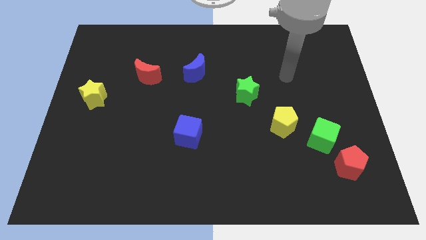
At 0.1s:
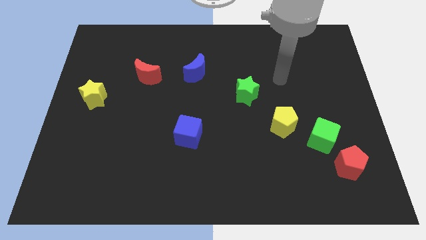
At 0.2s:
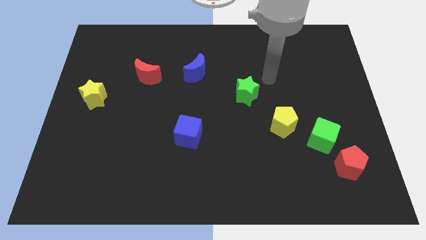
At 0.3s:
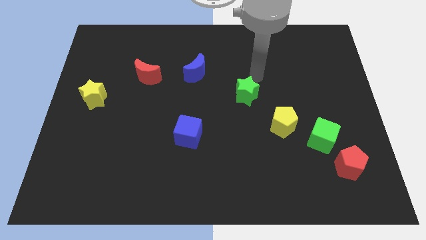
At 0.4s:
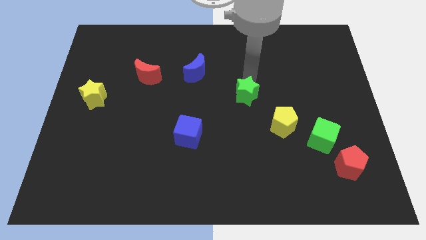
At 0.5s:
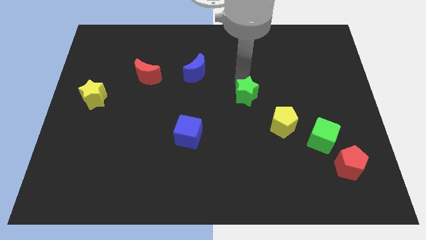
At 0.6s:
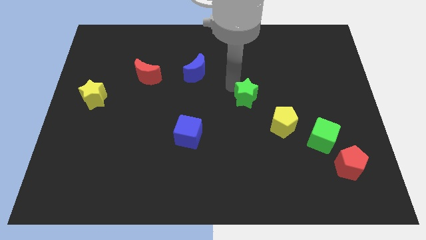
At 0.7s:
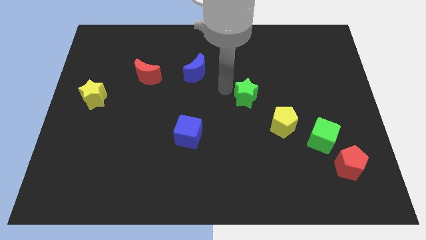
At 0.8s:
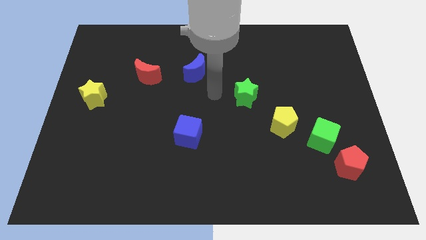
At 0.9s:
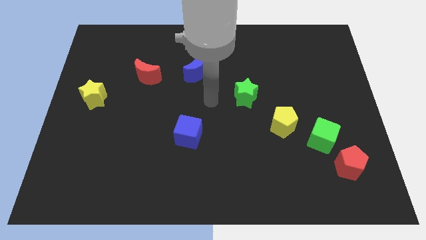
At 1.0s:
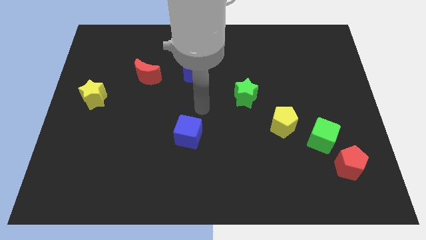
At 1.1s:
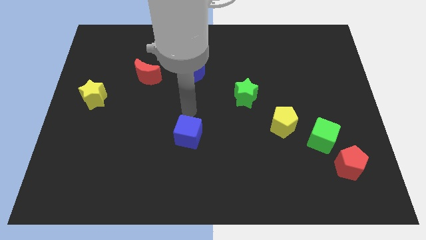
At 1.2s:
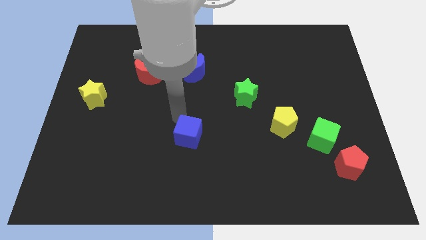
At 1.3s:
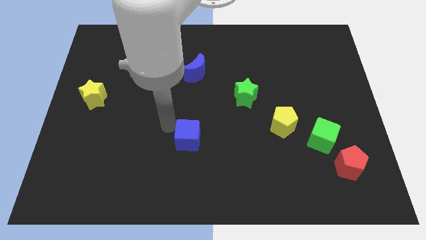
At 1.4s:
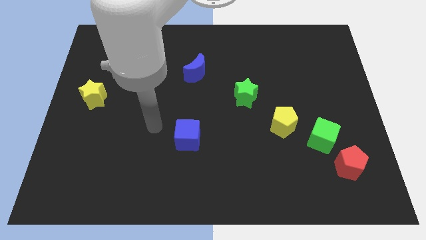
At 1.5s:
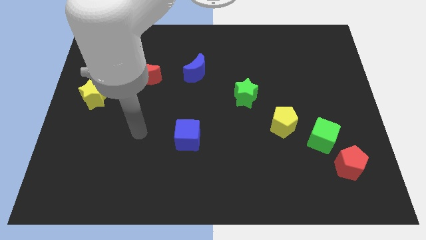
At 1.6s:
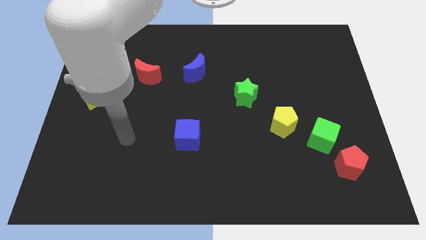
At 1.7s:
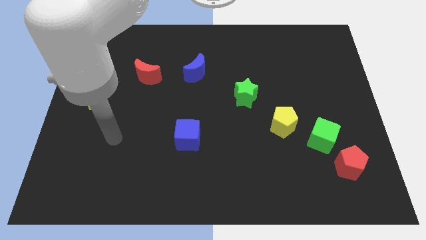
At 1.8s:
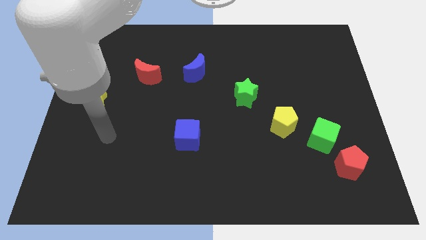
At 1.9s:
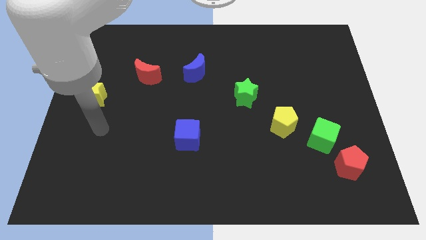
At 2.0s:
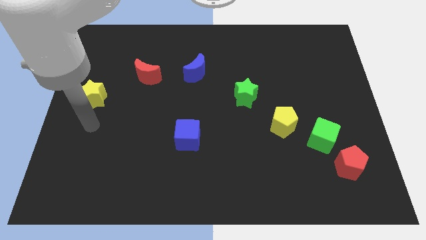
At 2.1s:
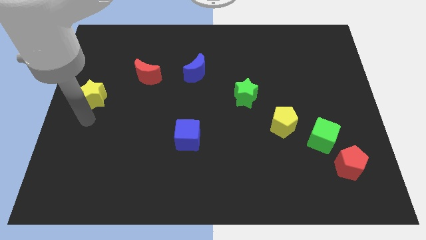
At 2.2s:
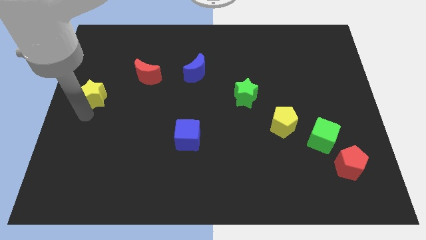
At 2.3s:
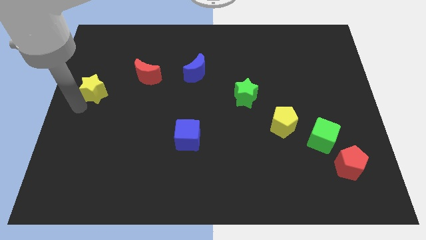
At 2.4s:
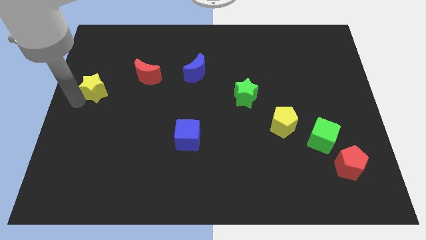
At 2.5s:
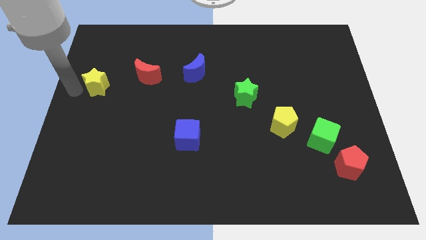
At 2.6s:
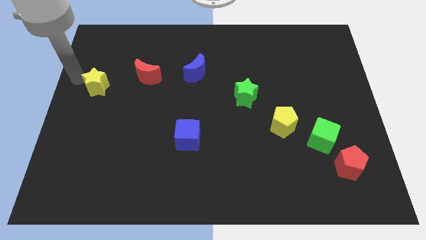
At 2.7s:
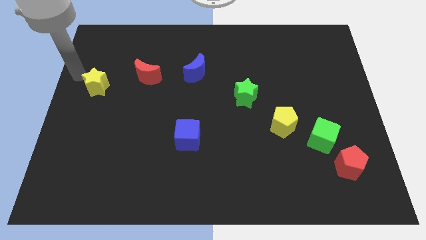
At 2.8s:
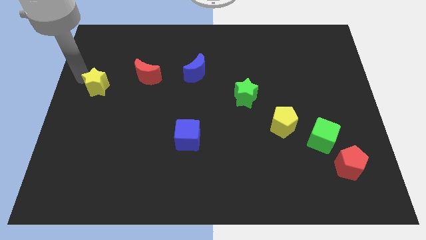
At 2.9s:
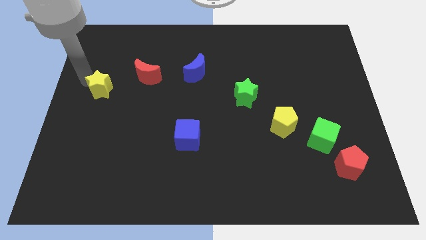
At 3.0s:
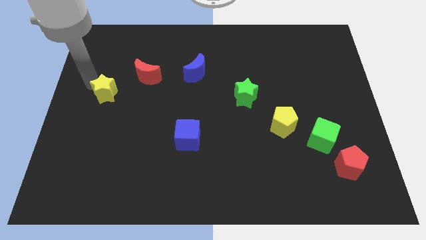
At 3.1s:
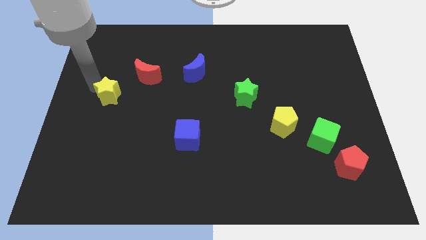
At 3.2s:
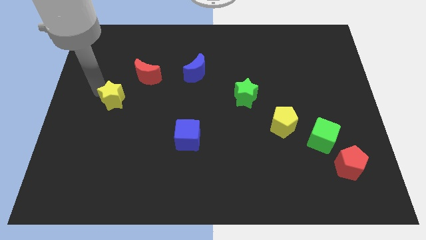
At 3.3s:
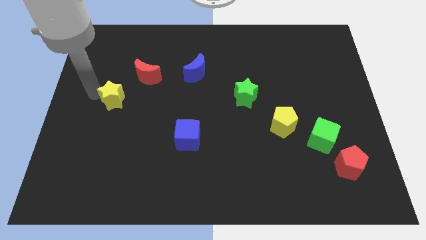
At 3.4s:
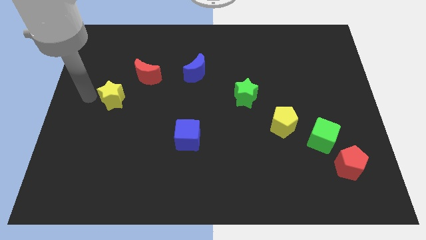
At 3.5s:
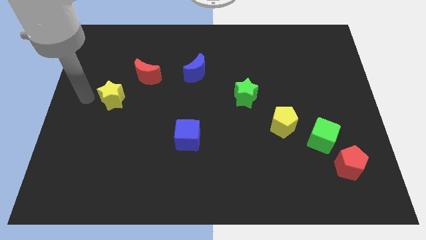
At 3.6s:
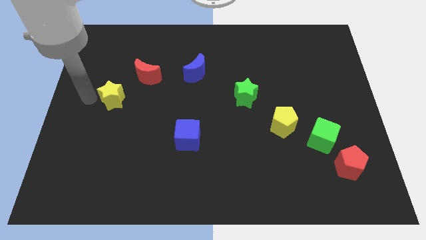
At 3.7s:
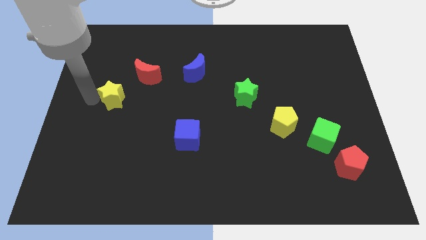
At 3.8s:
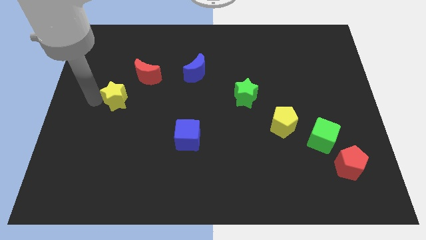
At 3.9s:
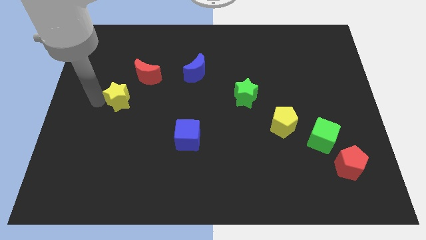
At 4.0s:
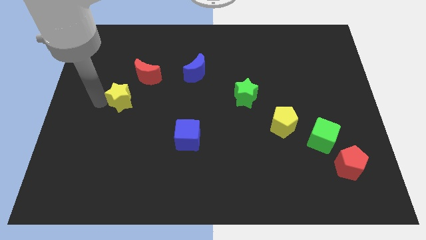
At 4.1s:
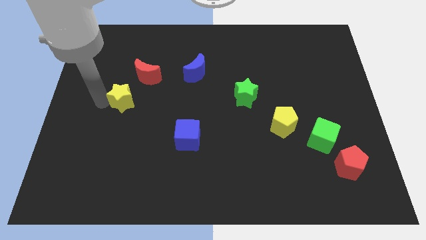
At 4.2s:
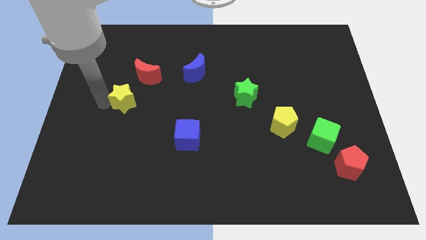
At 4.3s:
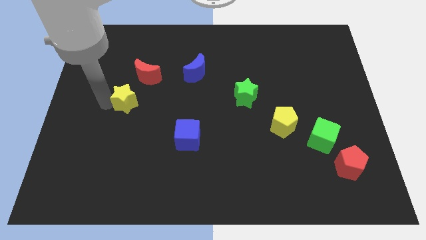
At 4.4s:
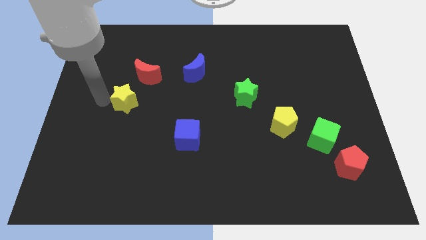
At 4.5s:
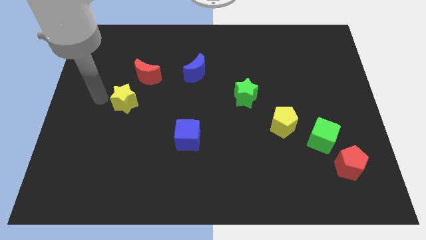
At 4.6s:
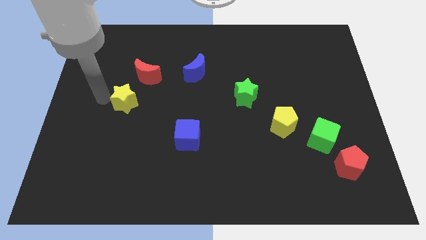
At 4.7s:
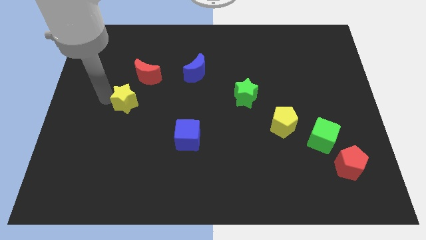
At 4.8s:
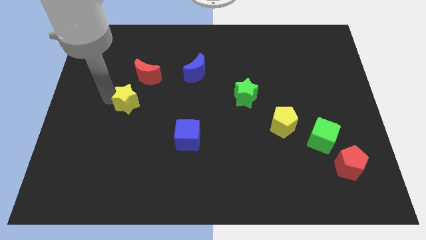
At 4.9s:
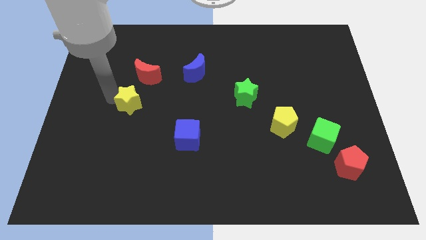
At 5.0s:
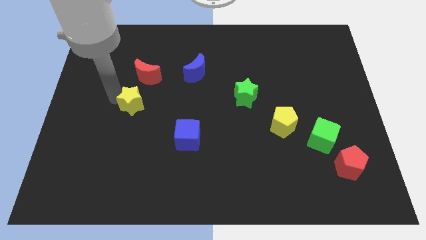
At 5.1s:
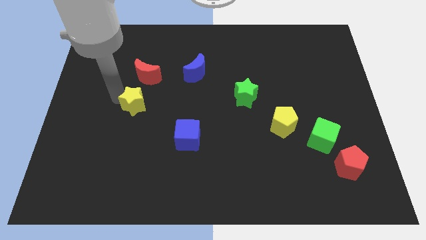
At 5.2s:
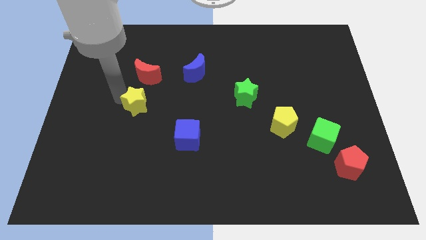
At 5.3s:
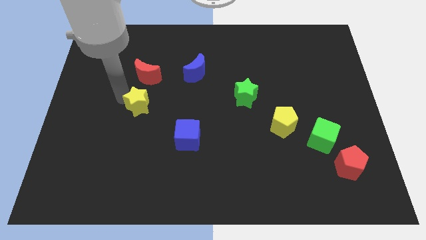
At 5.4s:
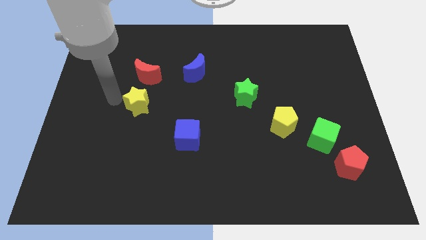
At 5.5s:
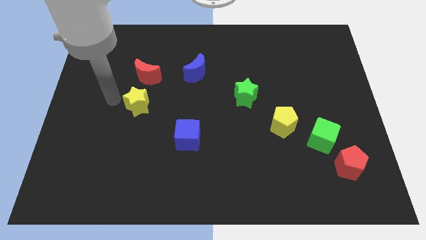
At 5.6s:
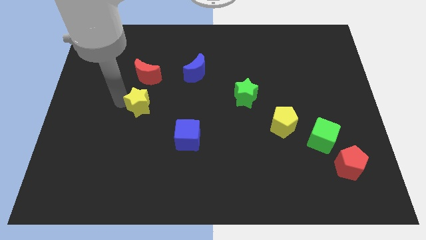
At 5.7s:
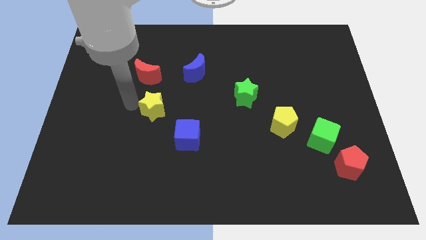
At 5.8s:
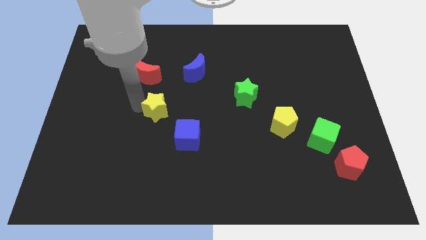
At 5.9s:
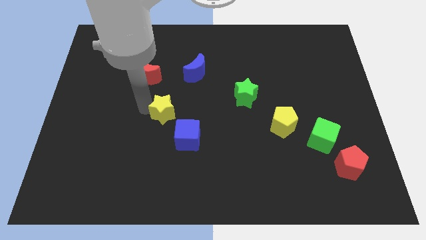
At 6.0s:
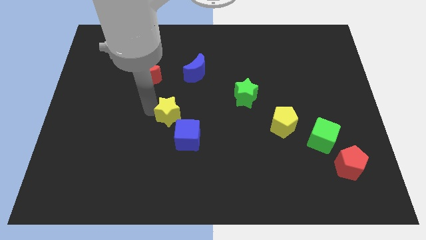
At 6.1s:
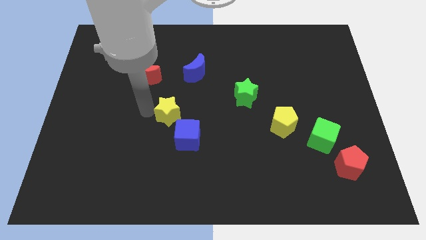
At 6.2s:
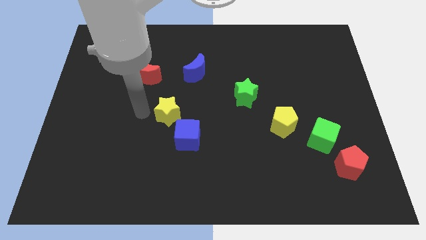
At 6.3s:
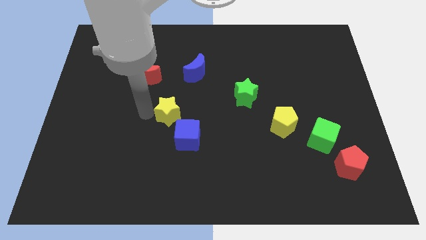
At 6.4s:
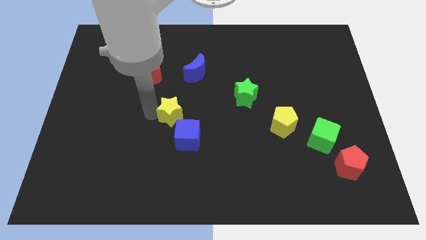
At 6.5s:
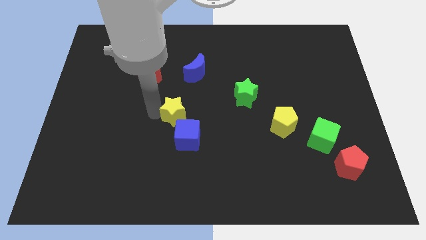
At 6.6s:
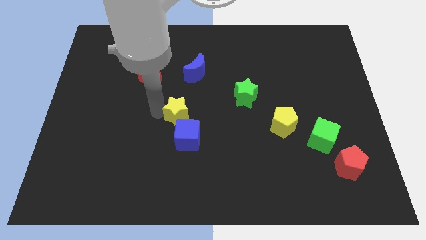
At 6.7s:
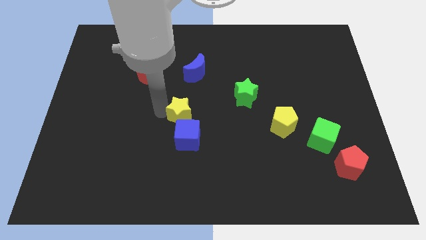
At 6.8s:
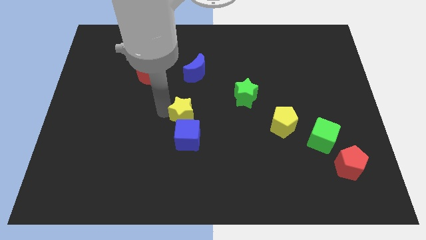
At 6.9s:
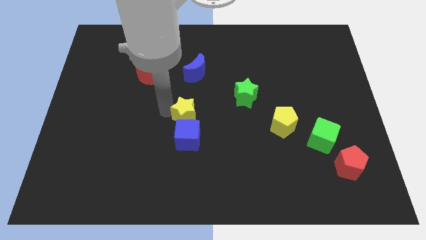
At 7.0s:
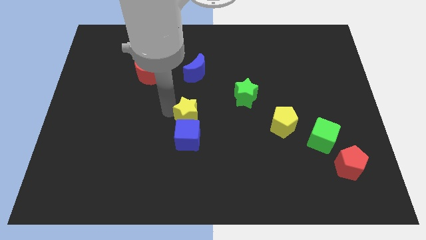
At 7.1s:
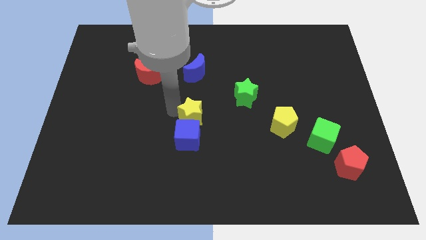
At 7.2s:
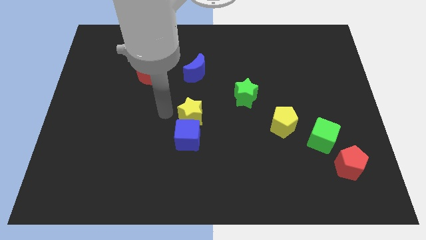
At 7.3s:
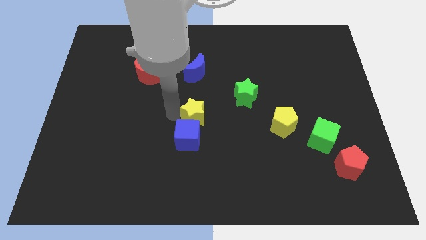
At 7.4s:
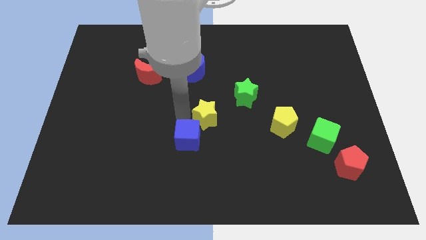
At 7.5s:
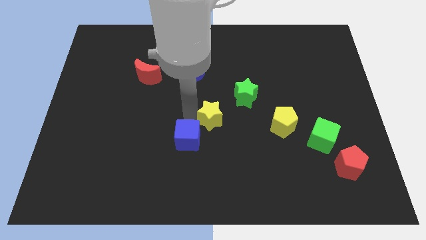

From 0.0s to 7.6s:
slide the yellow star left of the yellow pentagon
